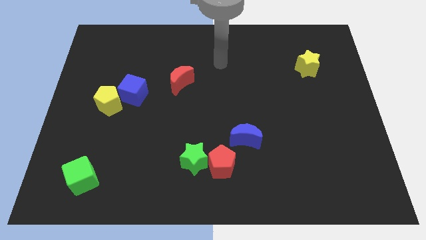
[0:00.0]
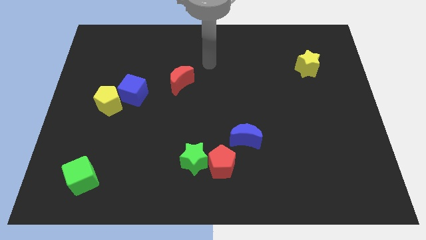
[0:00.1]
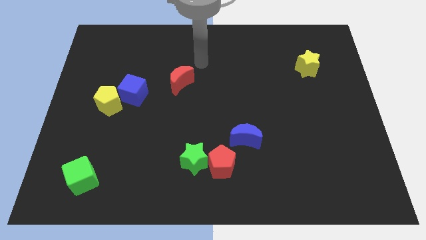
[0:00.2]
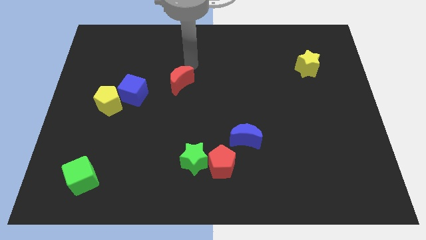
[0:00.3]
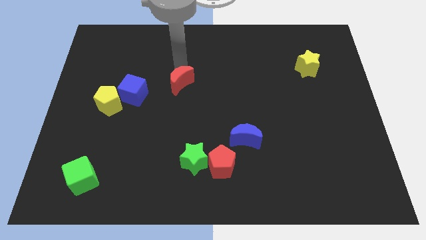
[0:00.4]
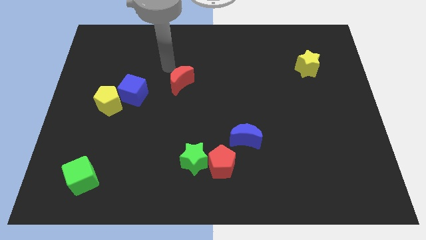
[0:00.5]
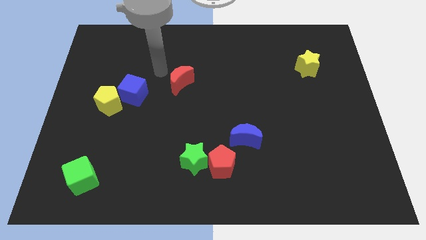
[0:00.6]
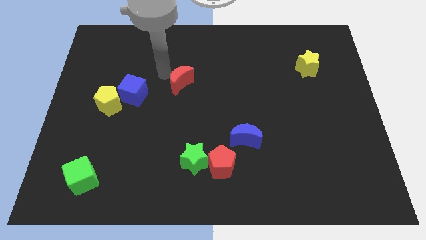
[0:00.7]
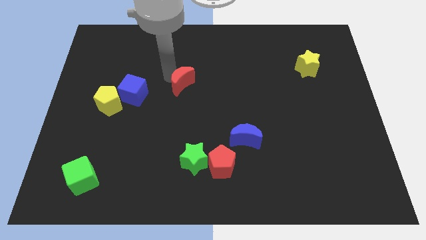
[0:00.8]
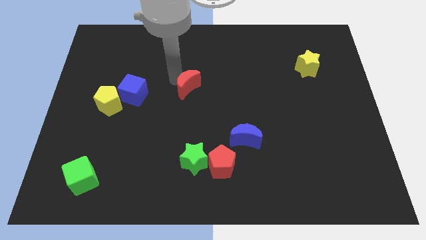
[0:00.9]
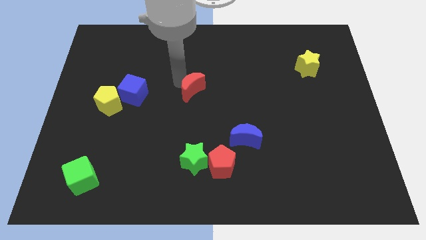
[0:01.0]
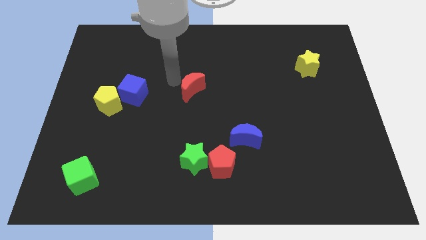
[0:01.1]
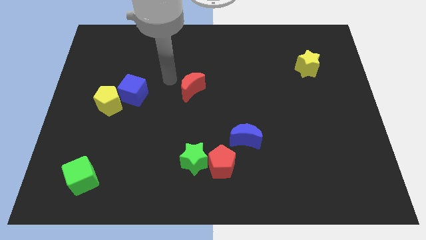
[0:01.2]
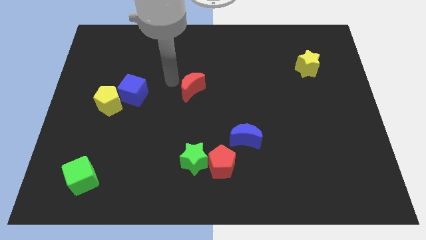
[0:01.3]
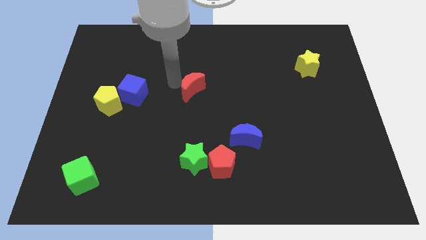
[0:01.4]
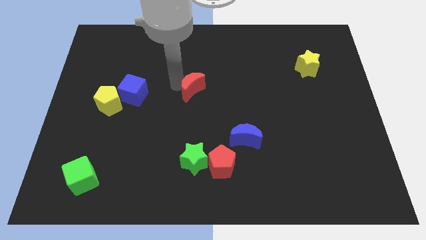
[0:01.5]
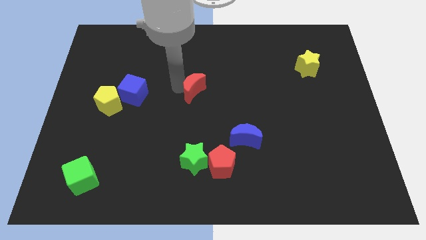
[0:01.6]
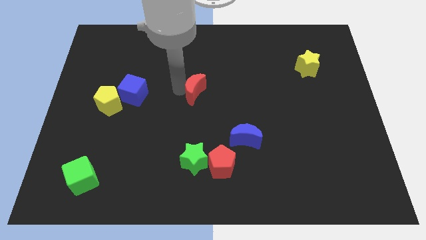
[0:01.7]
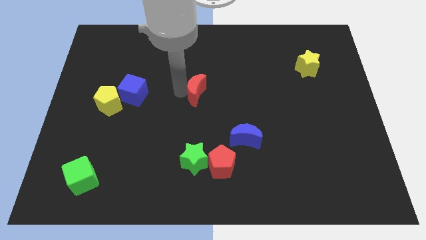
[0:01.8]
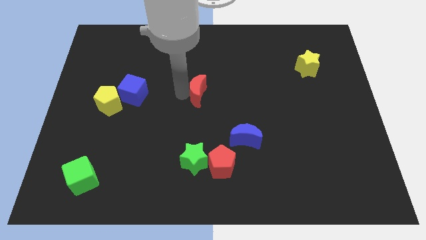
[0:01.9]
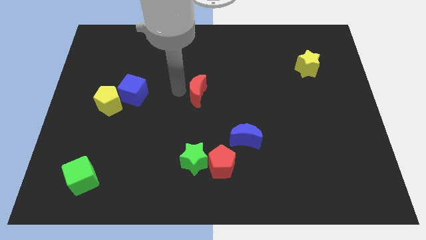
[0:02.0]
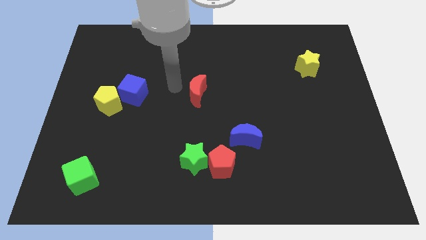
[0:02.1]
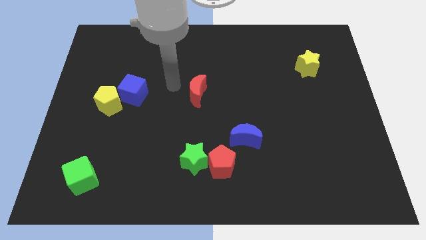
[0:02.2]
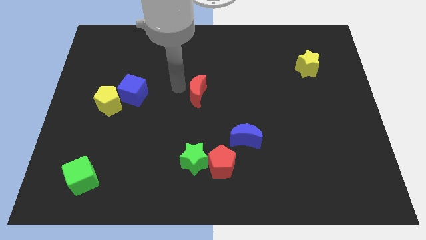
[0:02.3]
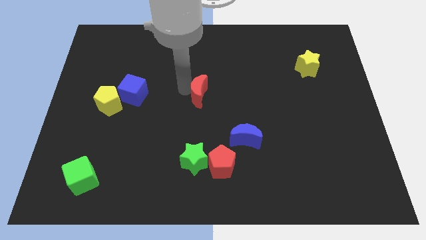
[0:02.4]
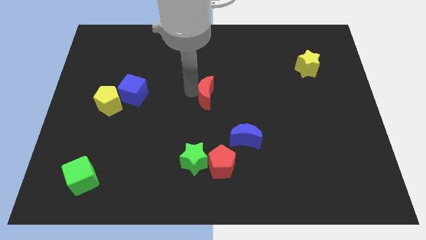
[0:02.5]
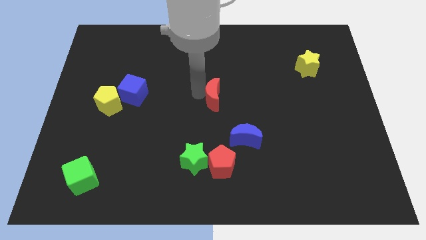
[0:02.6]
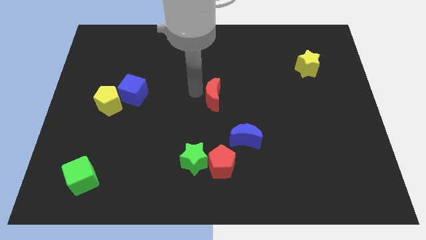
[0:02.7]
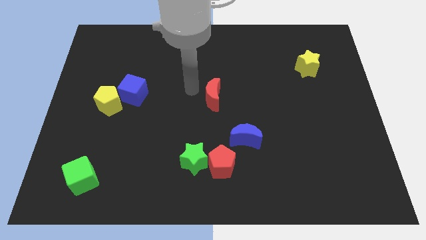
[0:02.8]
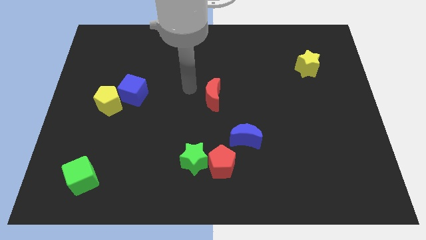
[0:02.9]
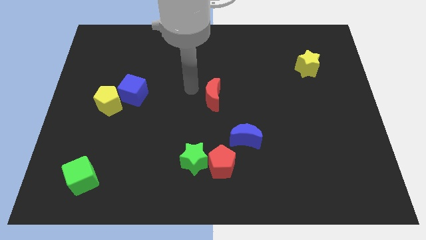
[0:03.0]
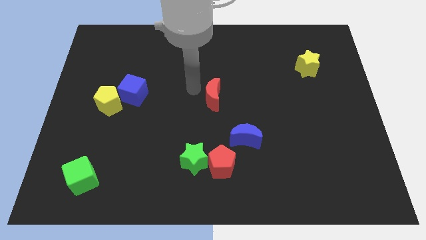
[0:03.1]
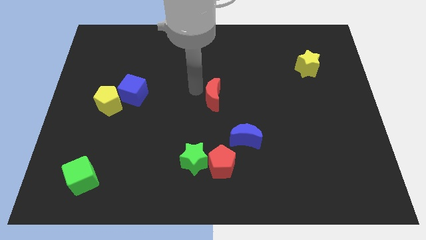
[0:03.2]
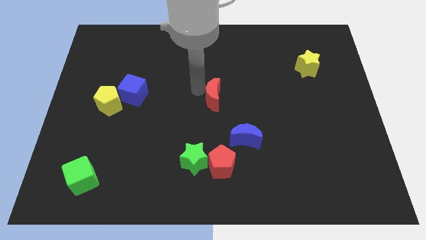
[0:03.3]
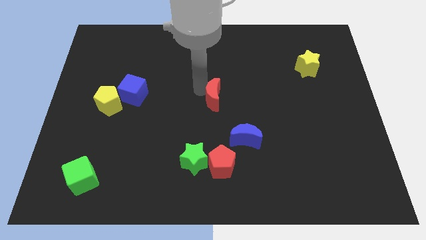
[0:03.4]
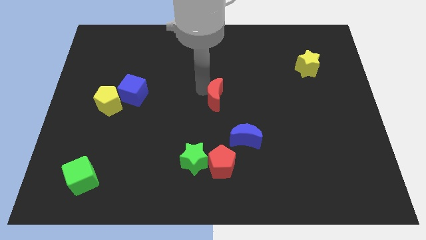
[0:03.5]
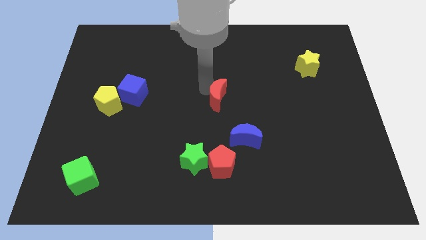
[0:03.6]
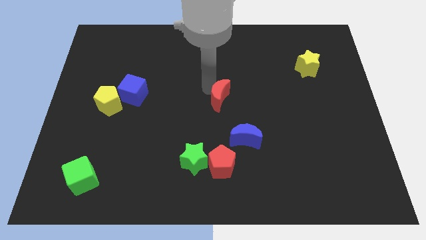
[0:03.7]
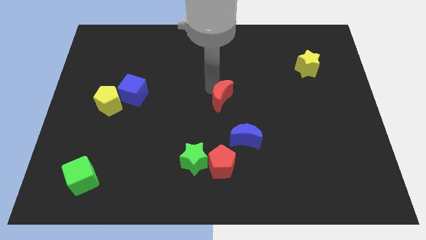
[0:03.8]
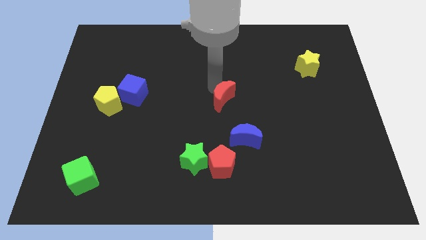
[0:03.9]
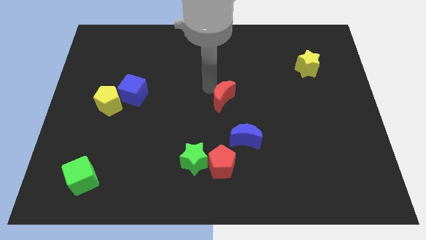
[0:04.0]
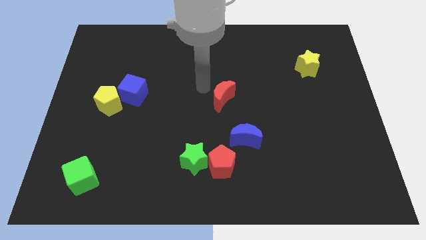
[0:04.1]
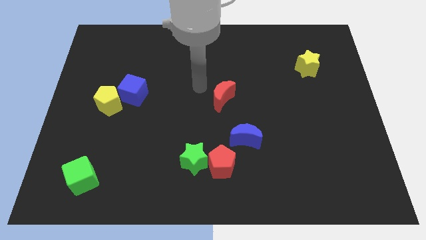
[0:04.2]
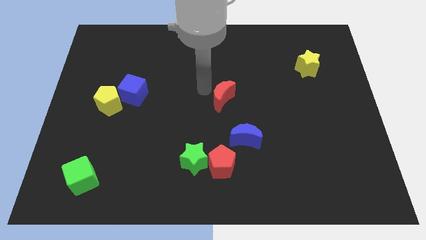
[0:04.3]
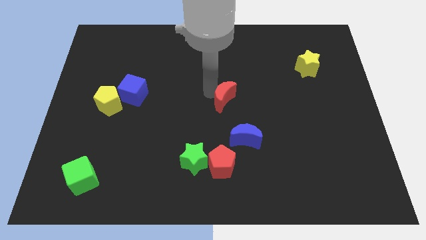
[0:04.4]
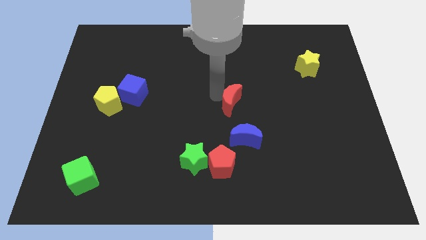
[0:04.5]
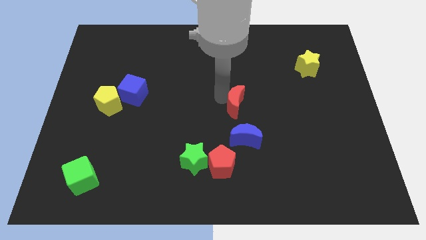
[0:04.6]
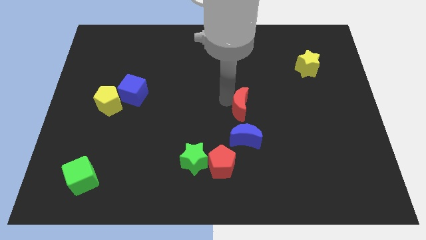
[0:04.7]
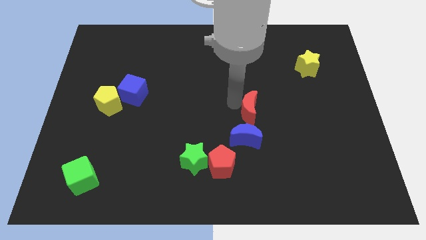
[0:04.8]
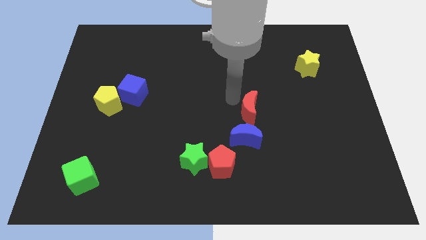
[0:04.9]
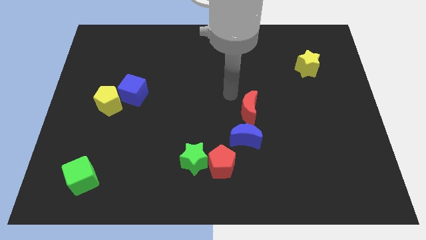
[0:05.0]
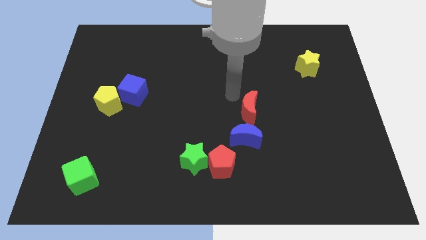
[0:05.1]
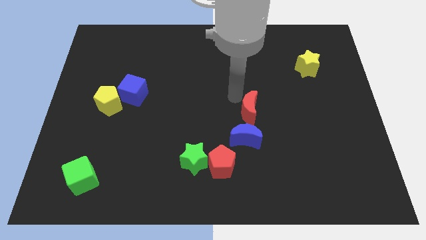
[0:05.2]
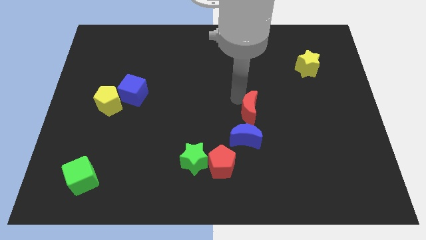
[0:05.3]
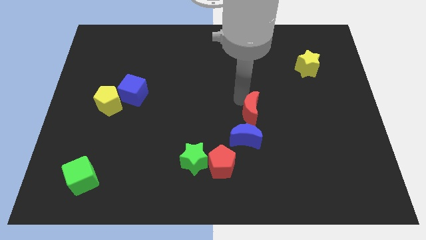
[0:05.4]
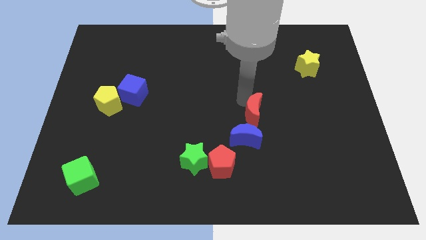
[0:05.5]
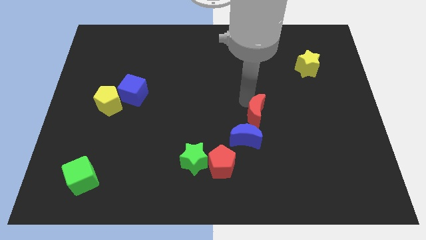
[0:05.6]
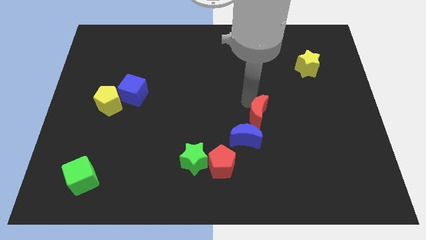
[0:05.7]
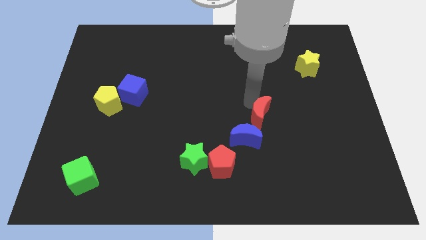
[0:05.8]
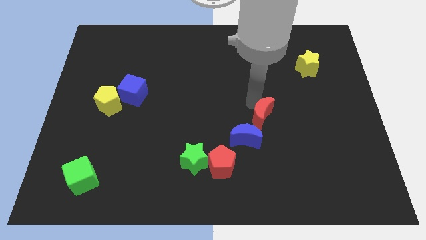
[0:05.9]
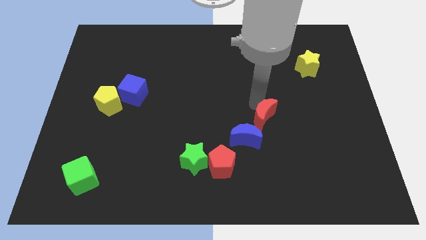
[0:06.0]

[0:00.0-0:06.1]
push the red moon diagonally downwards and right

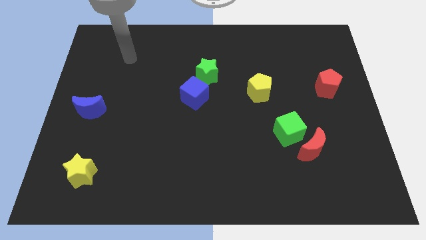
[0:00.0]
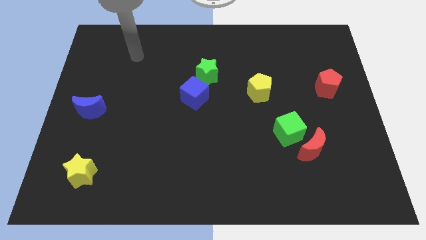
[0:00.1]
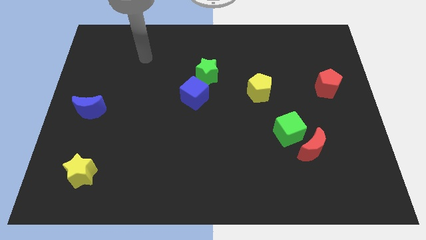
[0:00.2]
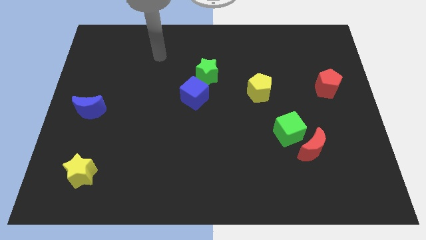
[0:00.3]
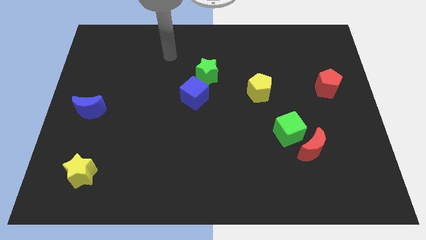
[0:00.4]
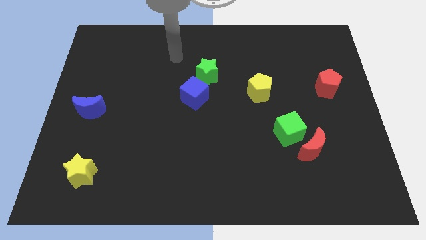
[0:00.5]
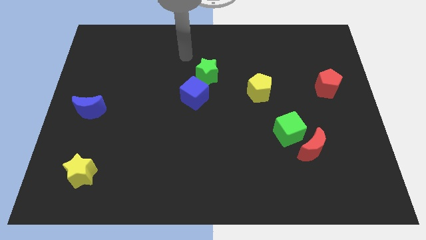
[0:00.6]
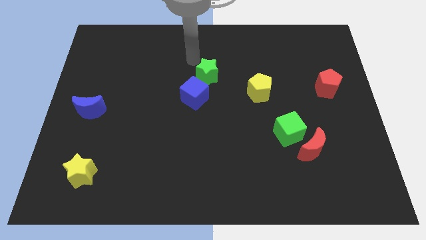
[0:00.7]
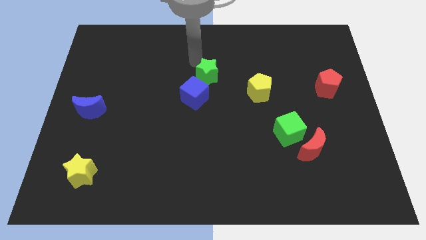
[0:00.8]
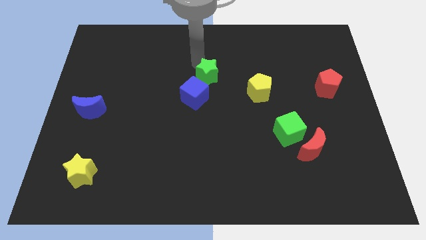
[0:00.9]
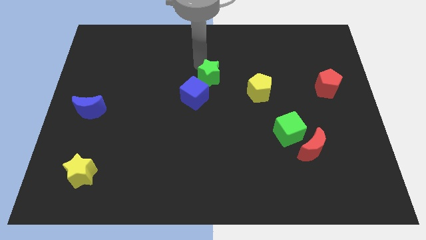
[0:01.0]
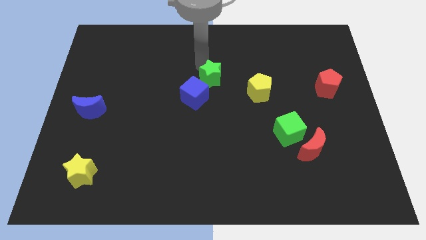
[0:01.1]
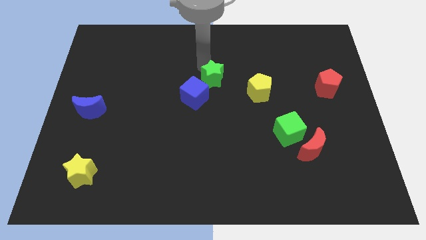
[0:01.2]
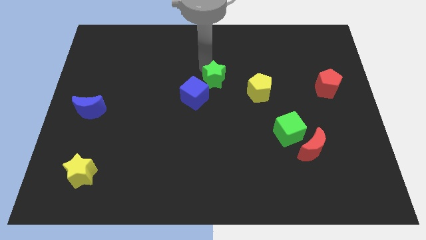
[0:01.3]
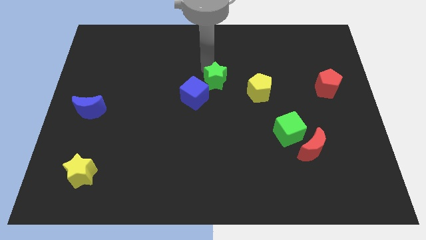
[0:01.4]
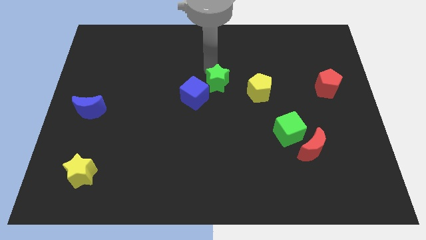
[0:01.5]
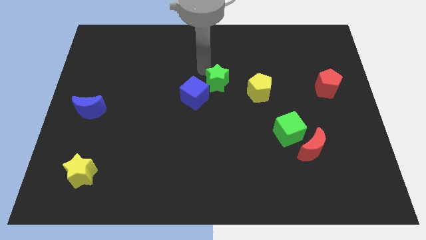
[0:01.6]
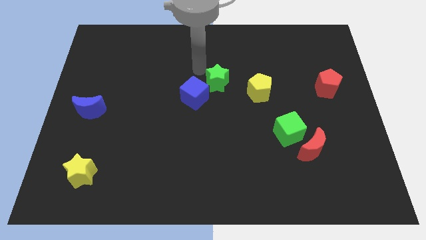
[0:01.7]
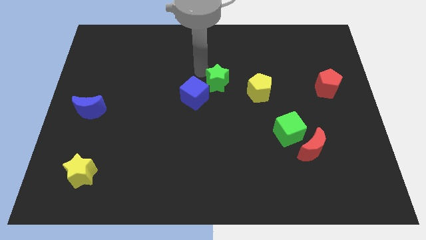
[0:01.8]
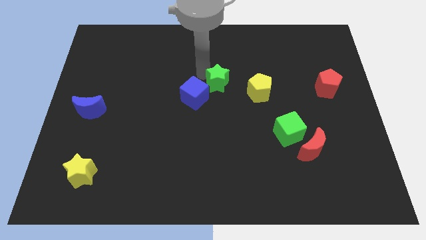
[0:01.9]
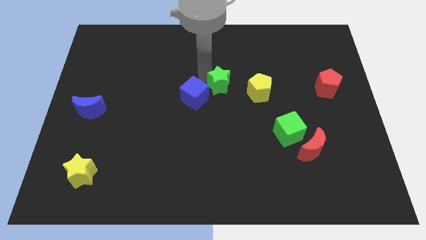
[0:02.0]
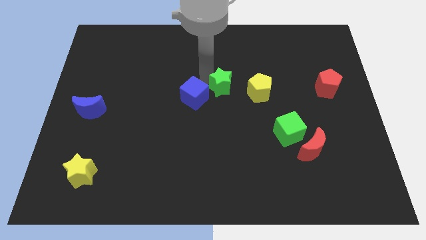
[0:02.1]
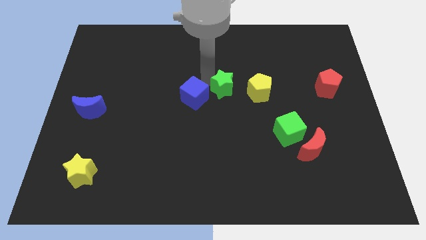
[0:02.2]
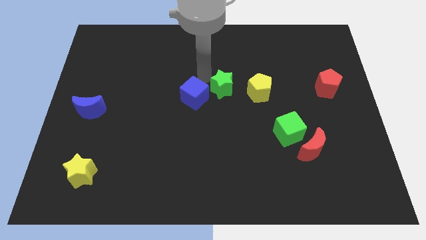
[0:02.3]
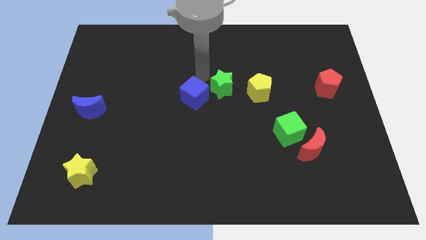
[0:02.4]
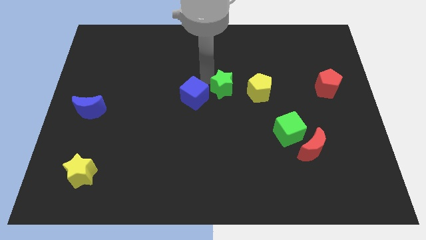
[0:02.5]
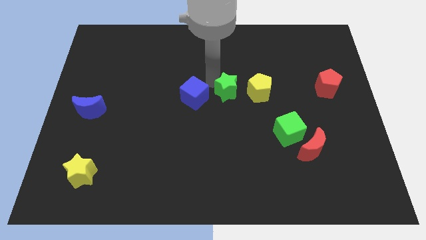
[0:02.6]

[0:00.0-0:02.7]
push the green star a bit down and then right
